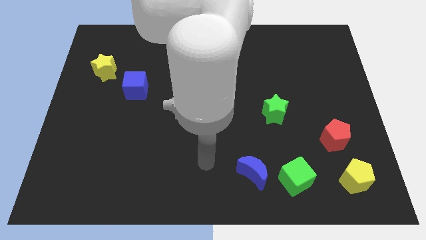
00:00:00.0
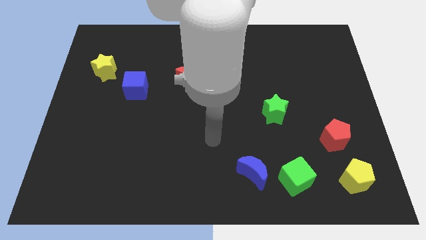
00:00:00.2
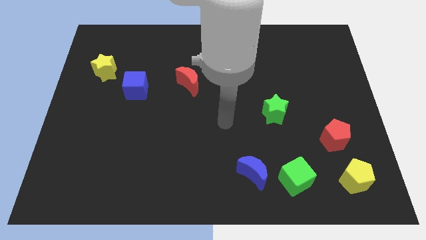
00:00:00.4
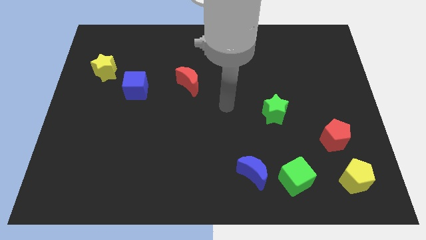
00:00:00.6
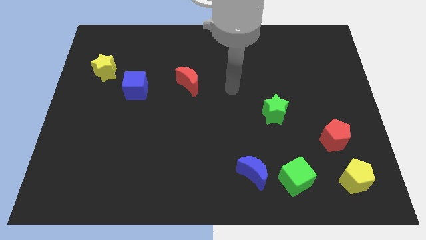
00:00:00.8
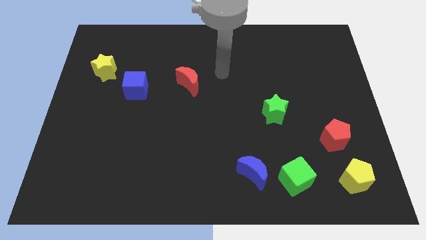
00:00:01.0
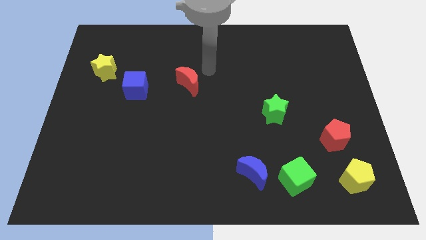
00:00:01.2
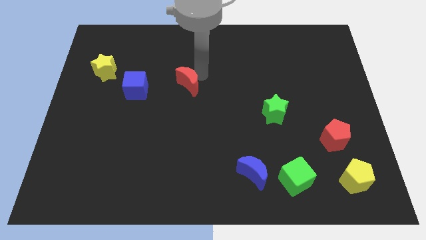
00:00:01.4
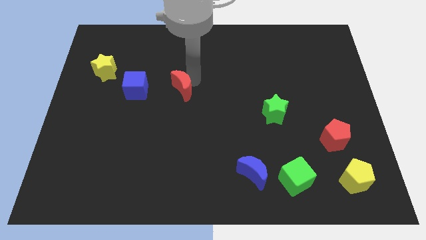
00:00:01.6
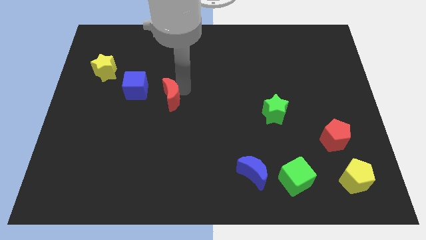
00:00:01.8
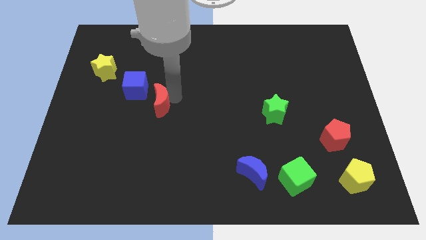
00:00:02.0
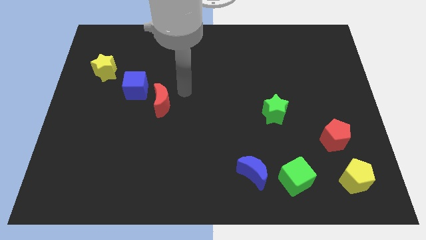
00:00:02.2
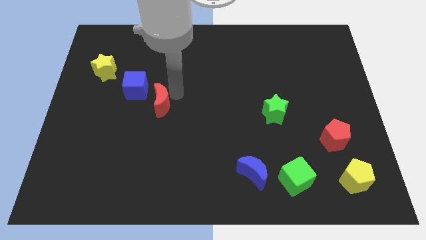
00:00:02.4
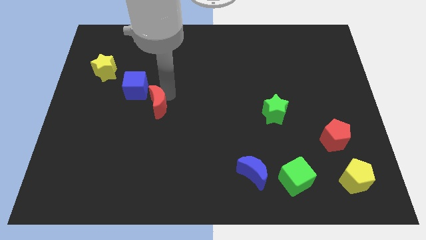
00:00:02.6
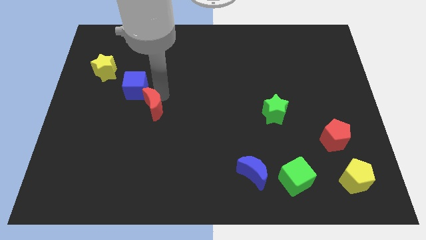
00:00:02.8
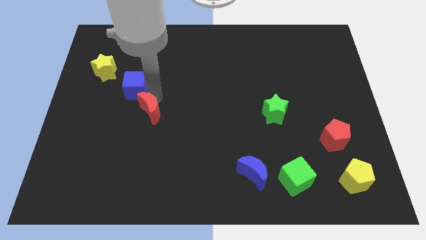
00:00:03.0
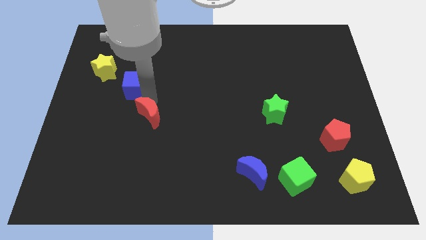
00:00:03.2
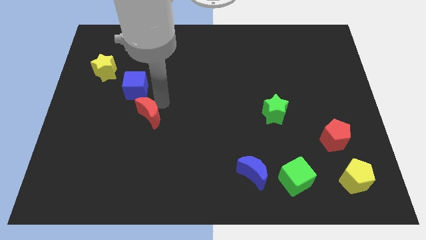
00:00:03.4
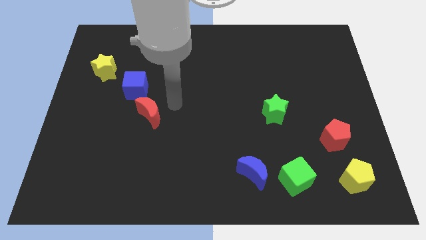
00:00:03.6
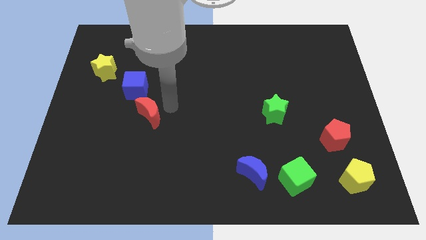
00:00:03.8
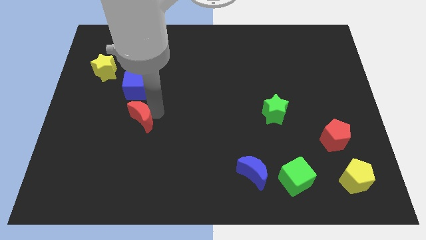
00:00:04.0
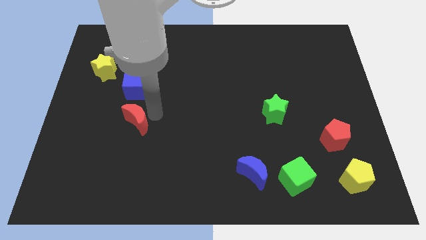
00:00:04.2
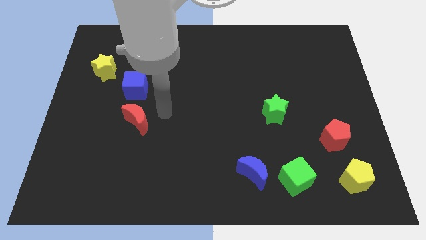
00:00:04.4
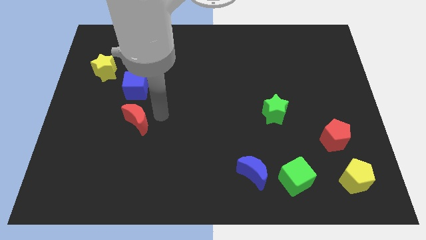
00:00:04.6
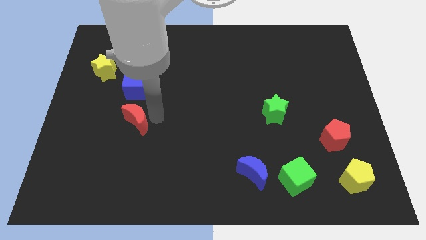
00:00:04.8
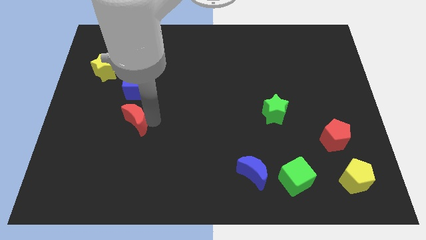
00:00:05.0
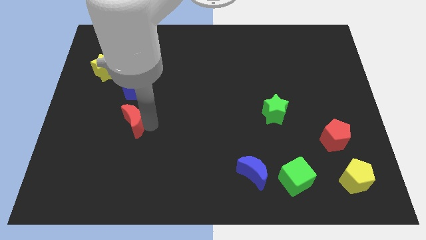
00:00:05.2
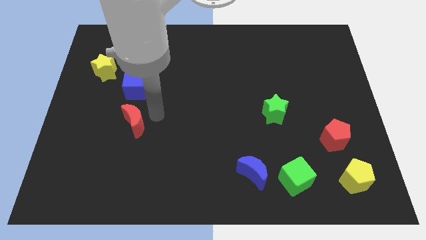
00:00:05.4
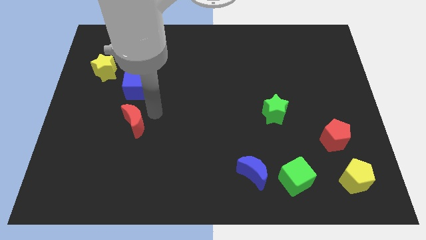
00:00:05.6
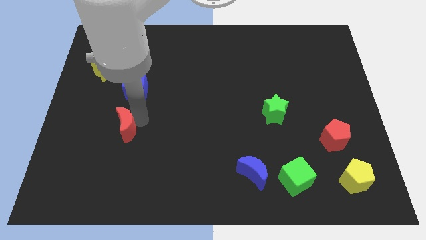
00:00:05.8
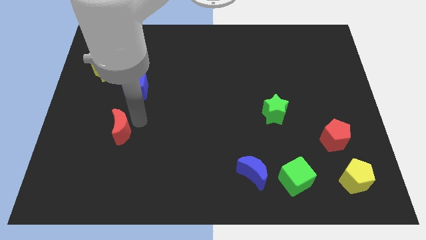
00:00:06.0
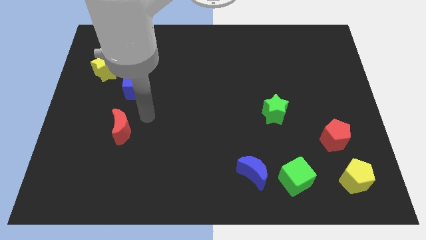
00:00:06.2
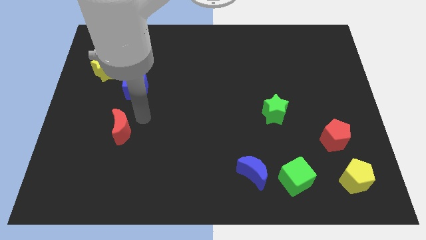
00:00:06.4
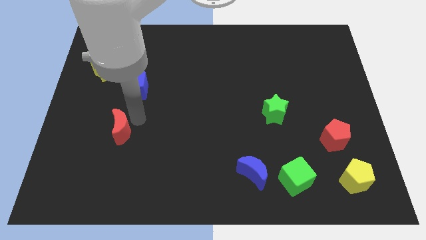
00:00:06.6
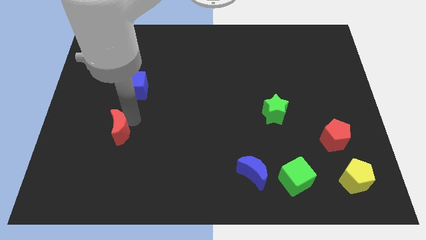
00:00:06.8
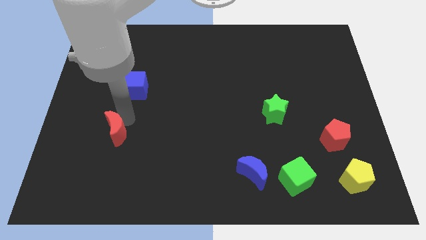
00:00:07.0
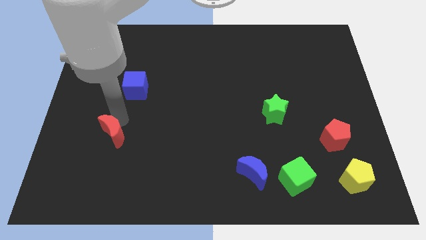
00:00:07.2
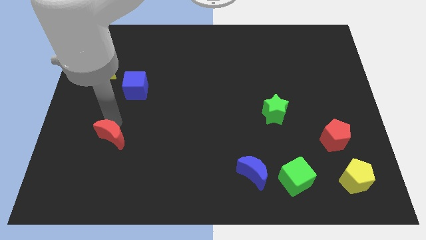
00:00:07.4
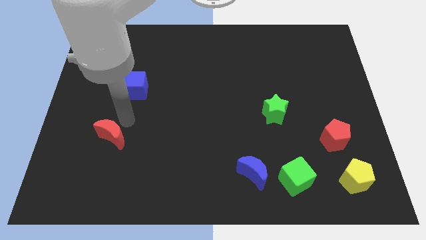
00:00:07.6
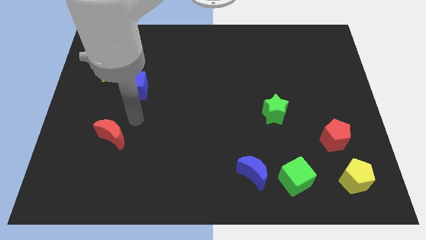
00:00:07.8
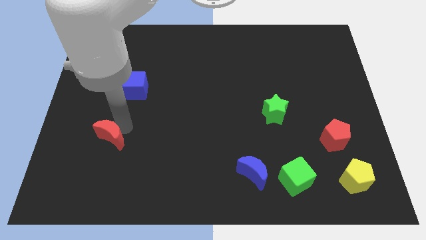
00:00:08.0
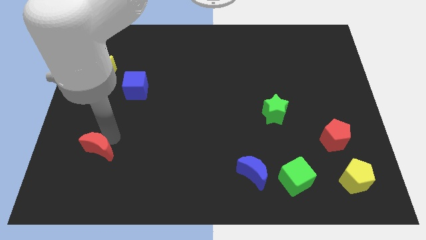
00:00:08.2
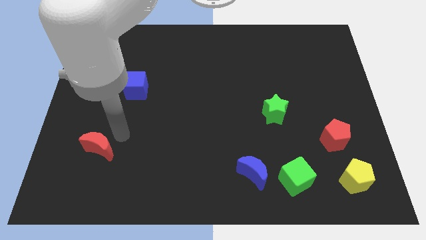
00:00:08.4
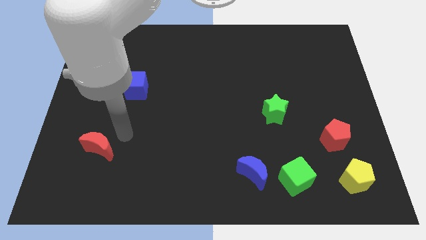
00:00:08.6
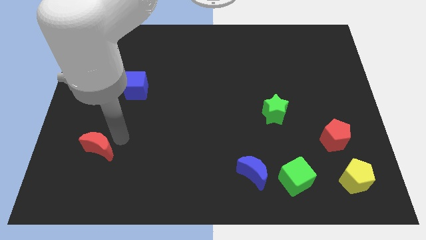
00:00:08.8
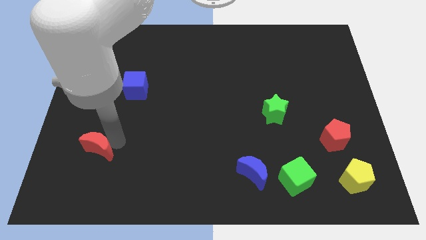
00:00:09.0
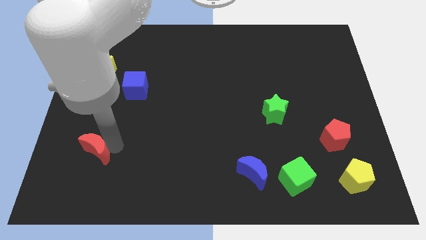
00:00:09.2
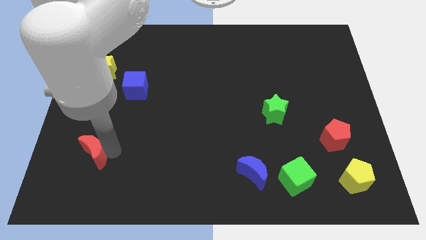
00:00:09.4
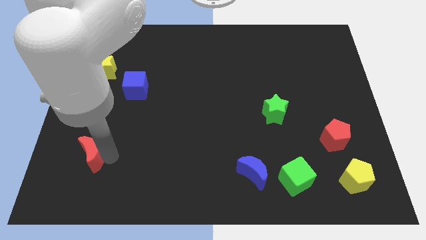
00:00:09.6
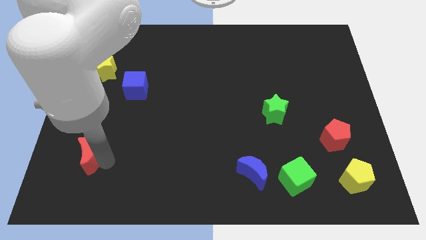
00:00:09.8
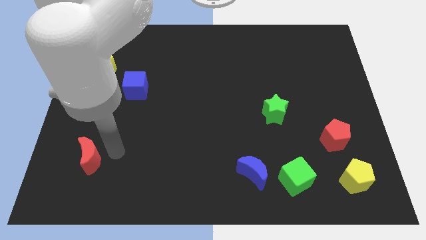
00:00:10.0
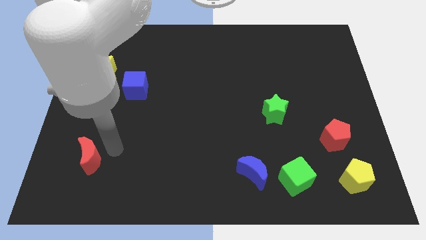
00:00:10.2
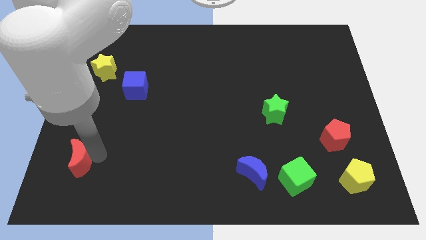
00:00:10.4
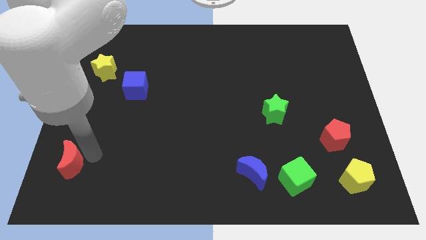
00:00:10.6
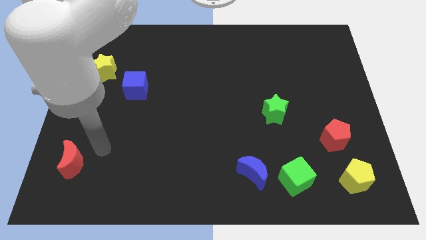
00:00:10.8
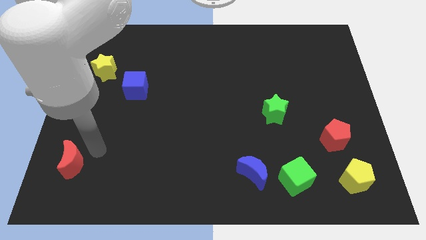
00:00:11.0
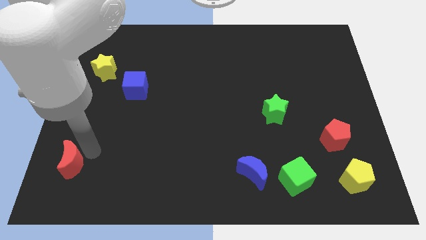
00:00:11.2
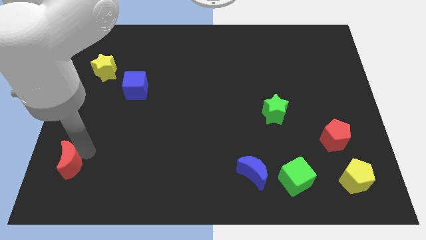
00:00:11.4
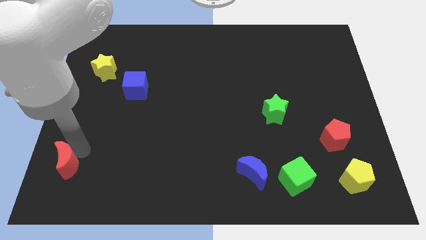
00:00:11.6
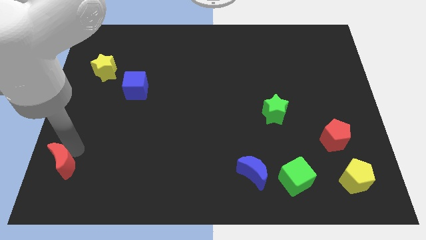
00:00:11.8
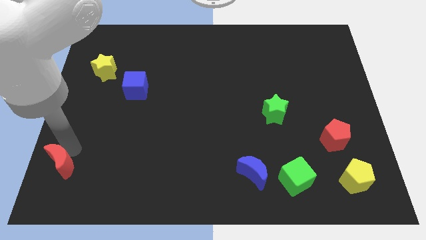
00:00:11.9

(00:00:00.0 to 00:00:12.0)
push the red moon to the lower left corner

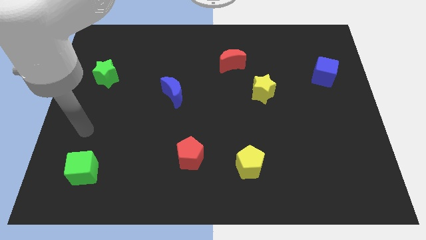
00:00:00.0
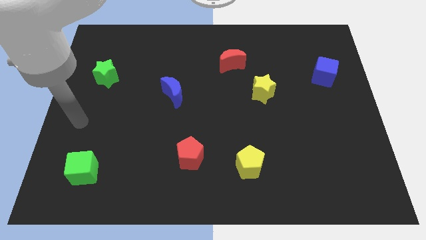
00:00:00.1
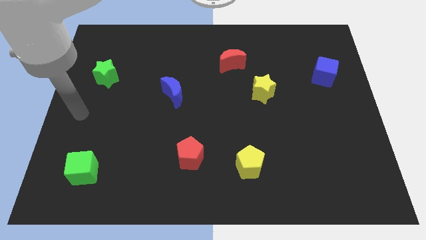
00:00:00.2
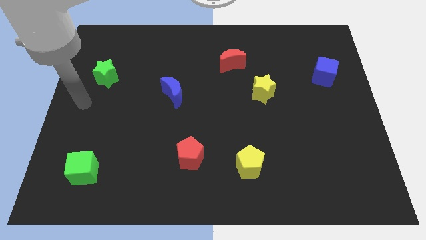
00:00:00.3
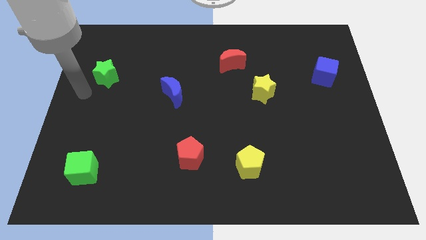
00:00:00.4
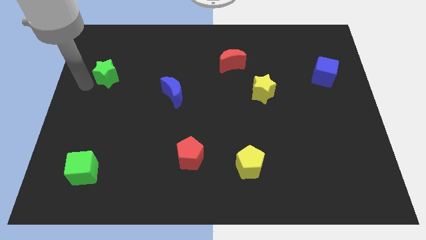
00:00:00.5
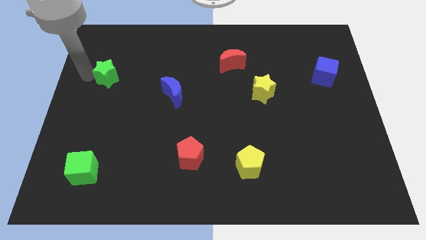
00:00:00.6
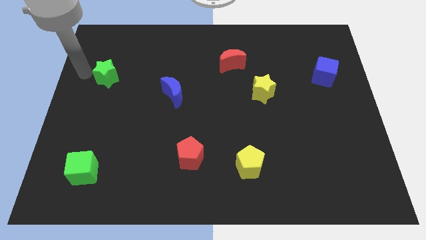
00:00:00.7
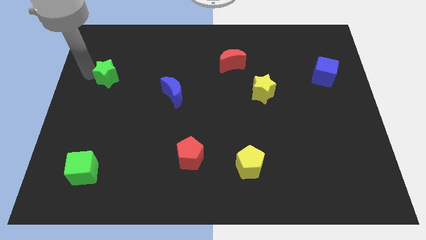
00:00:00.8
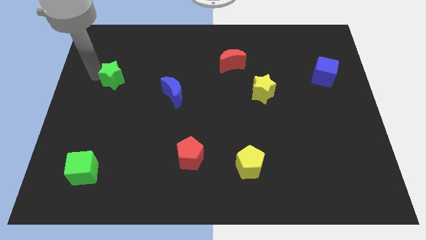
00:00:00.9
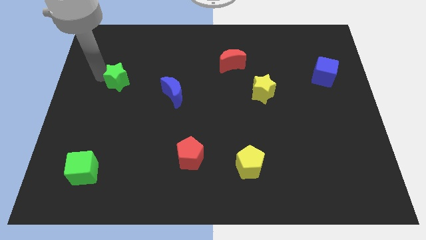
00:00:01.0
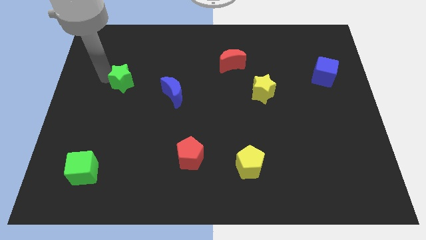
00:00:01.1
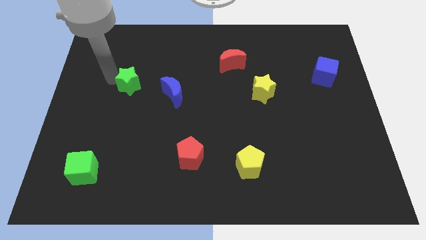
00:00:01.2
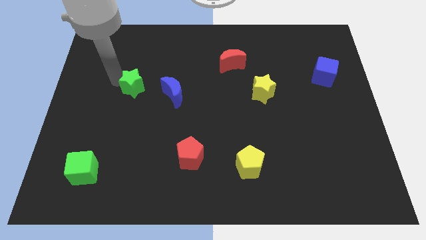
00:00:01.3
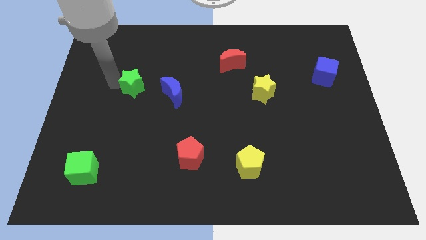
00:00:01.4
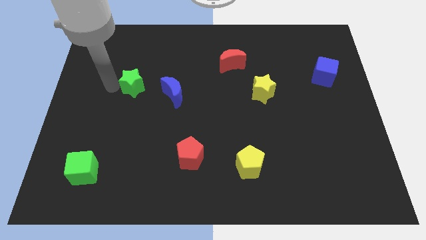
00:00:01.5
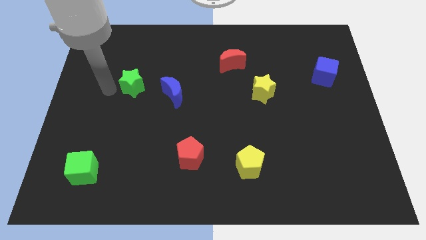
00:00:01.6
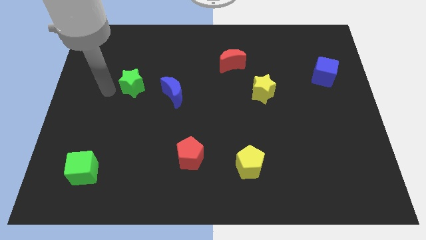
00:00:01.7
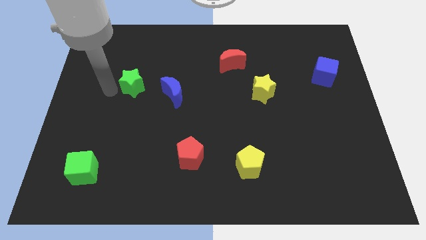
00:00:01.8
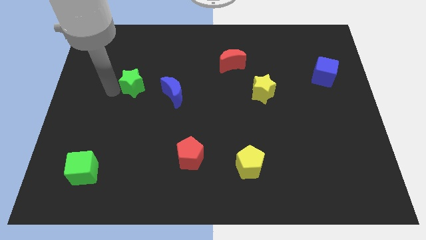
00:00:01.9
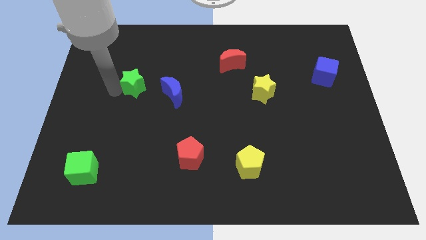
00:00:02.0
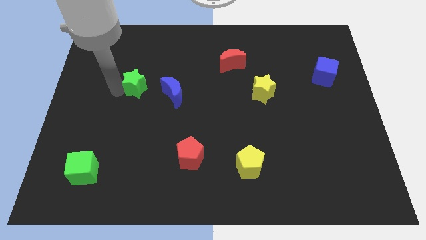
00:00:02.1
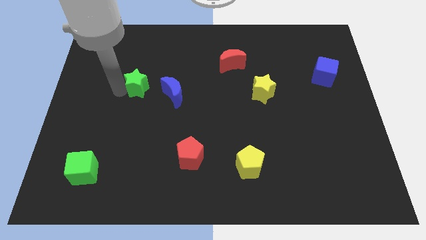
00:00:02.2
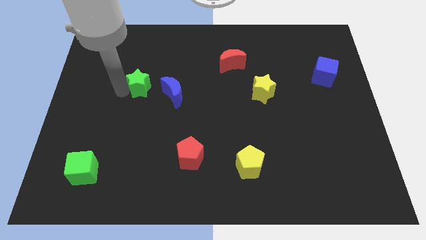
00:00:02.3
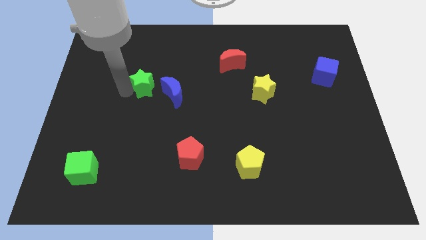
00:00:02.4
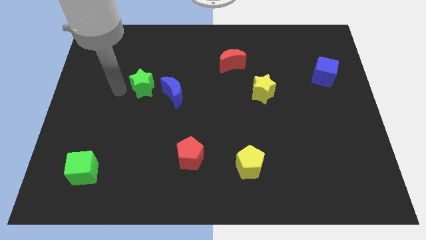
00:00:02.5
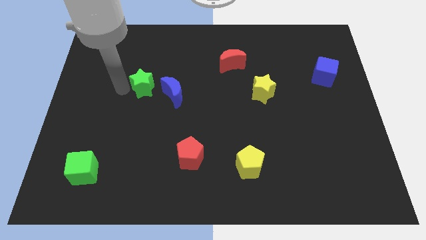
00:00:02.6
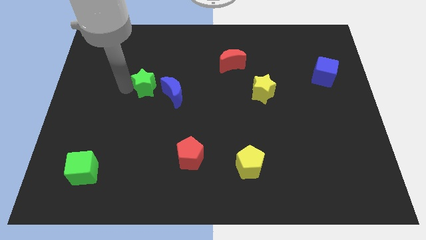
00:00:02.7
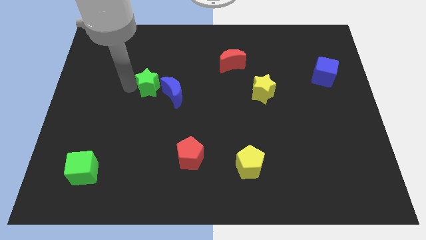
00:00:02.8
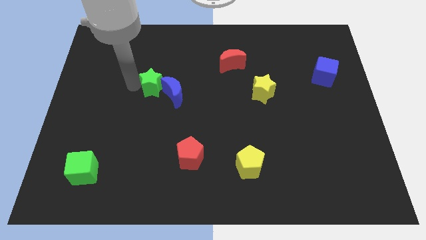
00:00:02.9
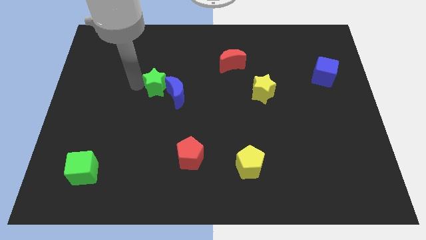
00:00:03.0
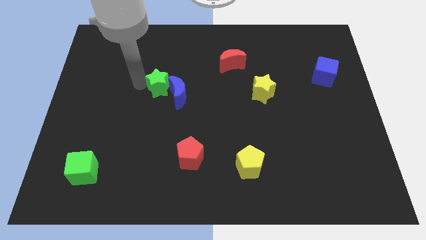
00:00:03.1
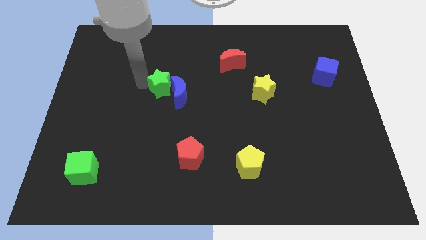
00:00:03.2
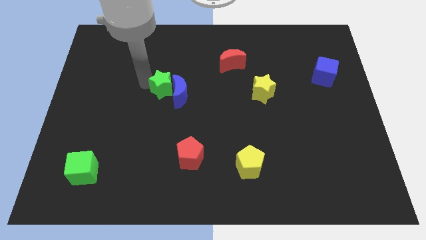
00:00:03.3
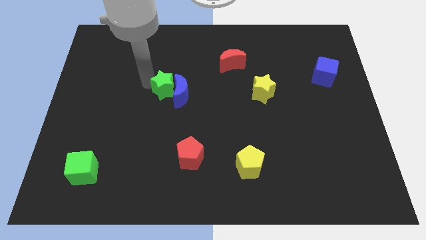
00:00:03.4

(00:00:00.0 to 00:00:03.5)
push the green star to the middle
